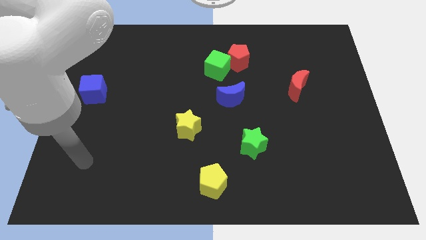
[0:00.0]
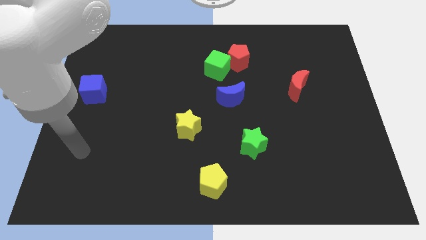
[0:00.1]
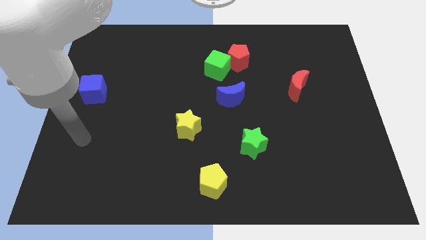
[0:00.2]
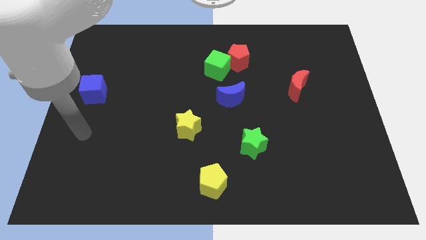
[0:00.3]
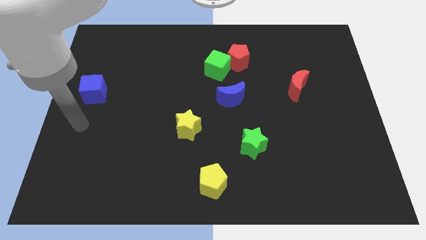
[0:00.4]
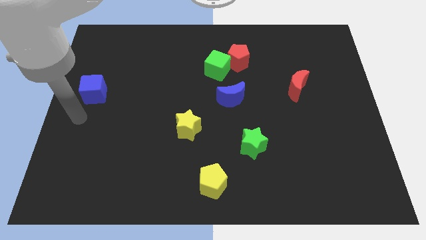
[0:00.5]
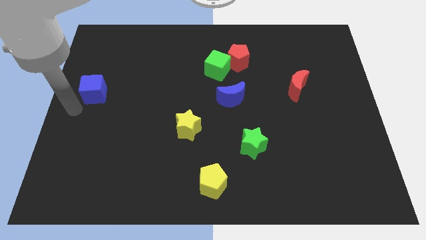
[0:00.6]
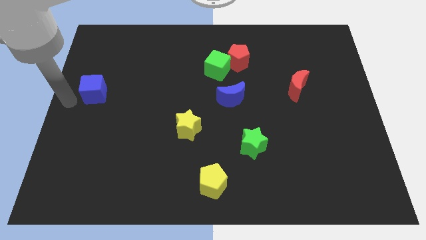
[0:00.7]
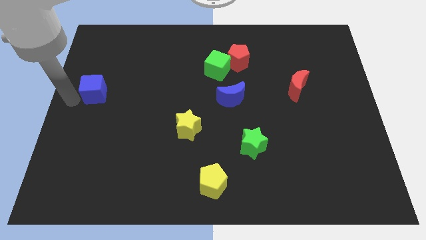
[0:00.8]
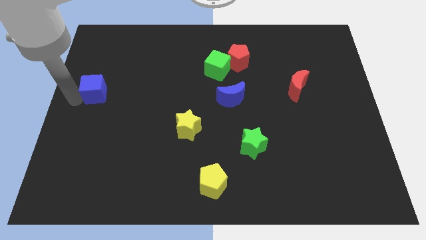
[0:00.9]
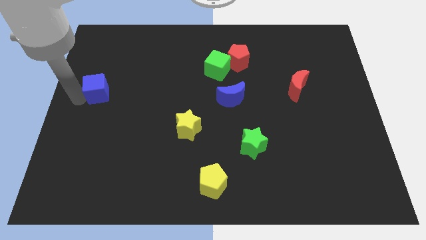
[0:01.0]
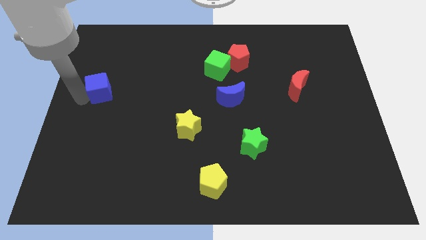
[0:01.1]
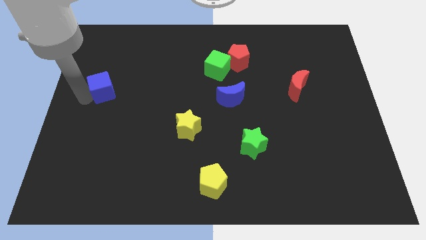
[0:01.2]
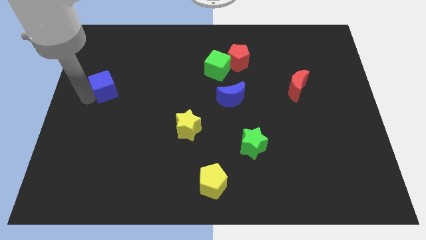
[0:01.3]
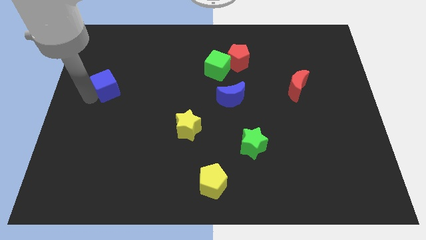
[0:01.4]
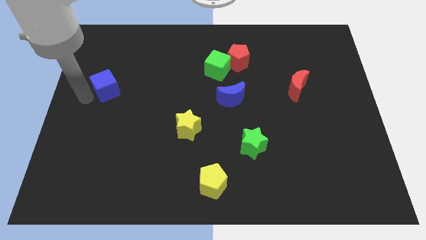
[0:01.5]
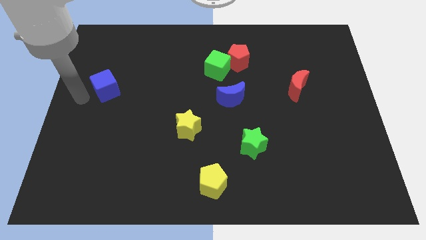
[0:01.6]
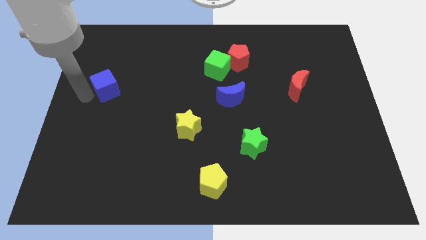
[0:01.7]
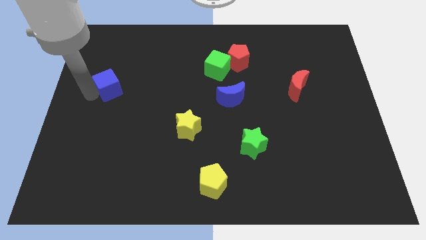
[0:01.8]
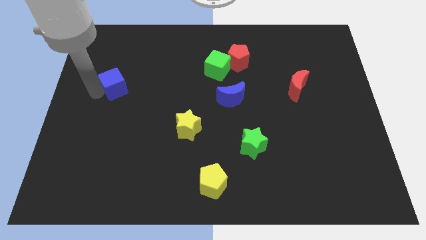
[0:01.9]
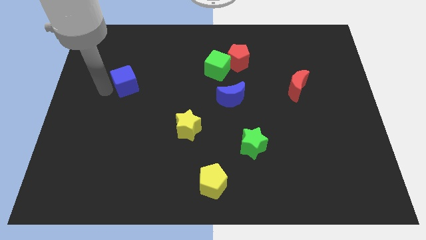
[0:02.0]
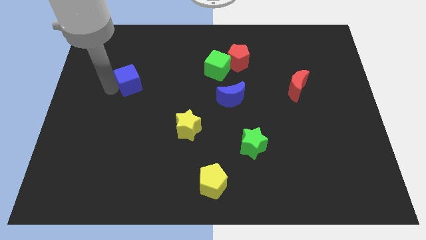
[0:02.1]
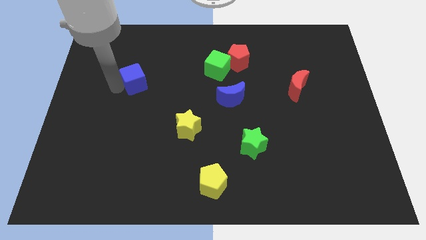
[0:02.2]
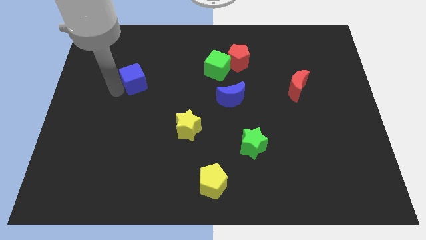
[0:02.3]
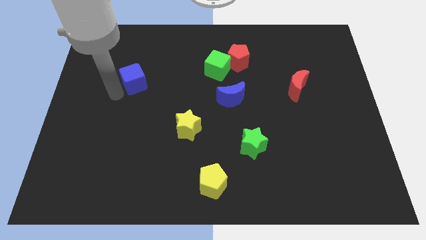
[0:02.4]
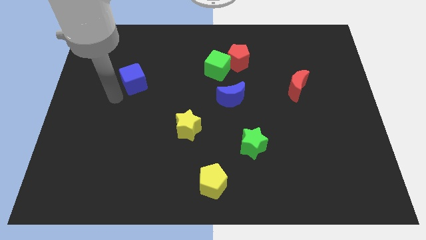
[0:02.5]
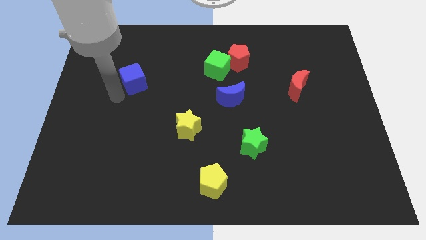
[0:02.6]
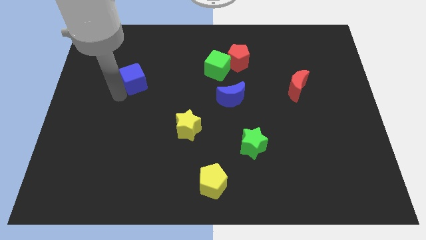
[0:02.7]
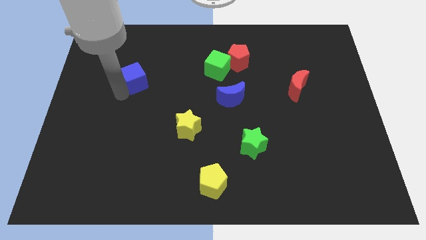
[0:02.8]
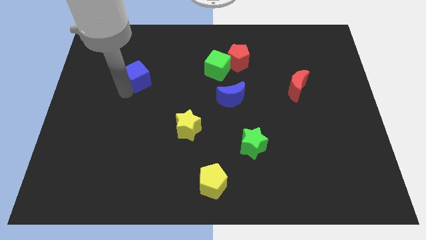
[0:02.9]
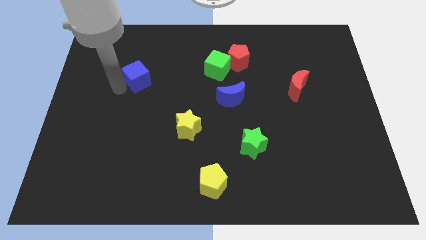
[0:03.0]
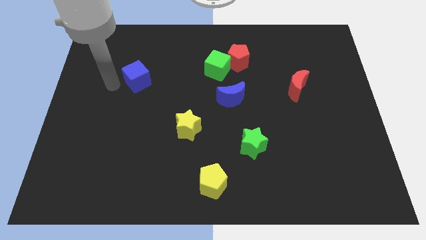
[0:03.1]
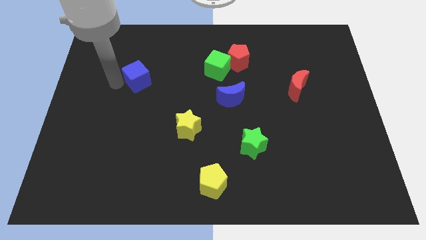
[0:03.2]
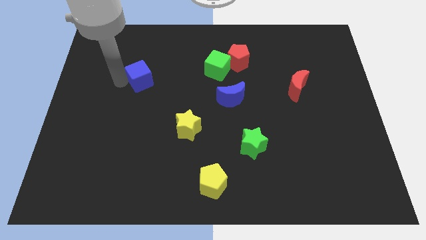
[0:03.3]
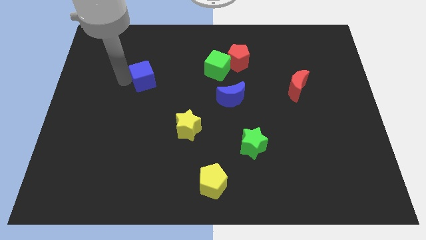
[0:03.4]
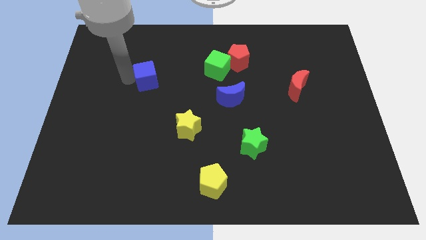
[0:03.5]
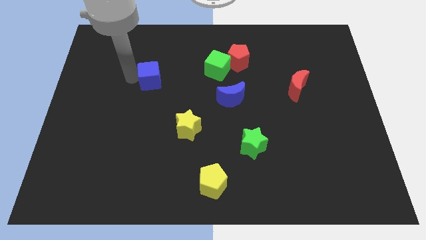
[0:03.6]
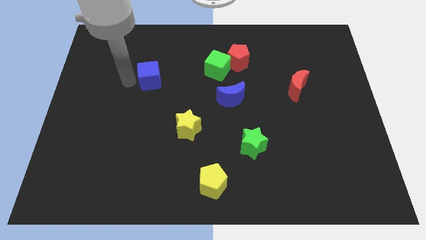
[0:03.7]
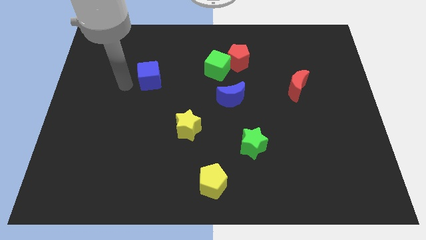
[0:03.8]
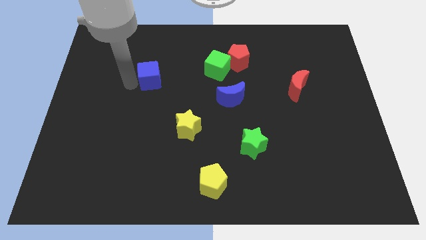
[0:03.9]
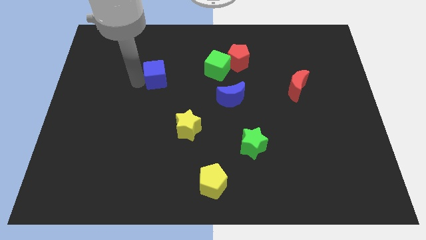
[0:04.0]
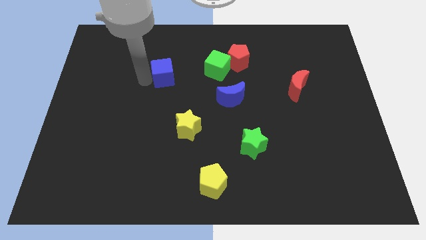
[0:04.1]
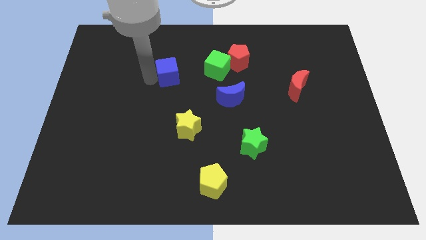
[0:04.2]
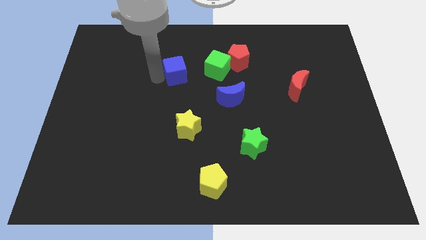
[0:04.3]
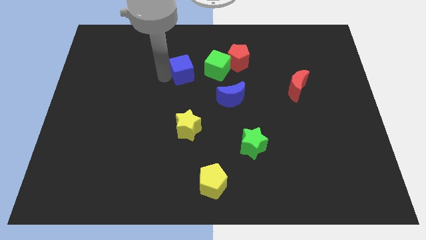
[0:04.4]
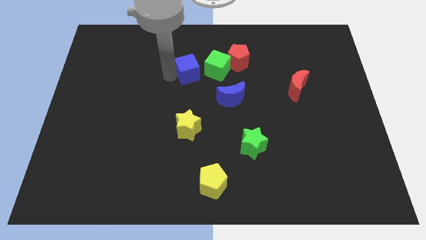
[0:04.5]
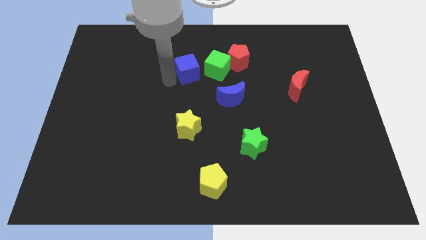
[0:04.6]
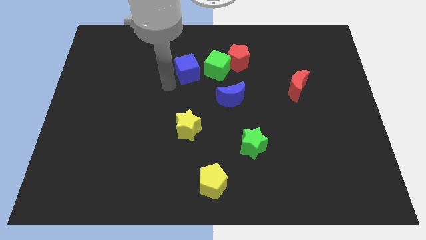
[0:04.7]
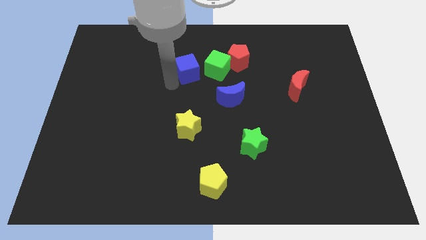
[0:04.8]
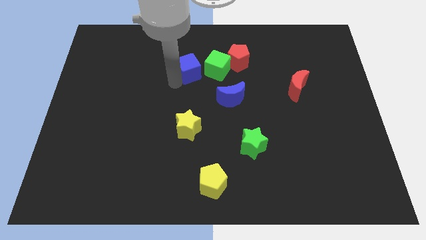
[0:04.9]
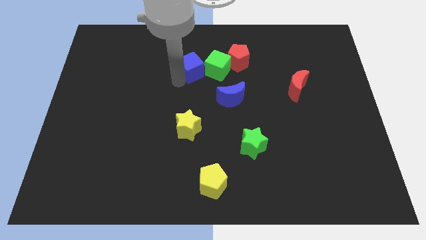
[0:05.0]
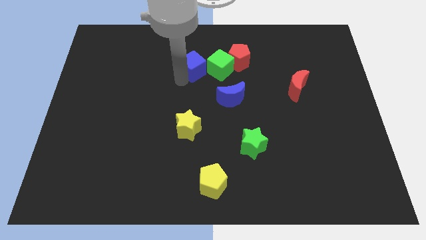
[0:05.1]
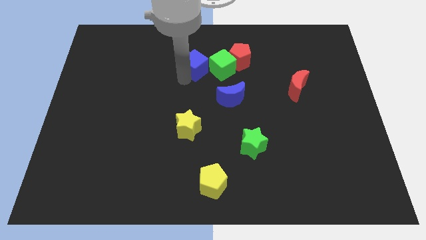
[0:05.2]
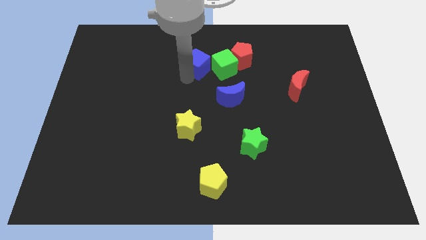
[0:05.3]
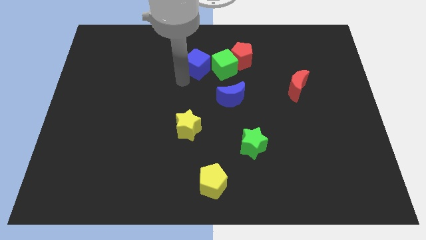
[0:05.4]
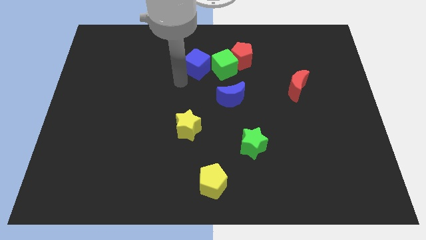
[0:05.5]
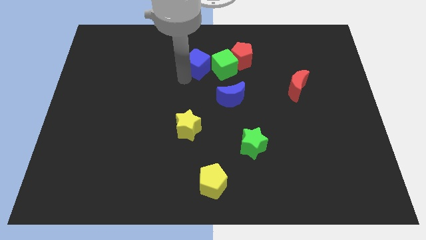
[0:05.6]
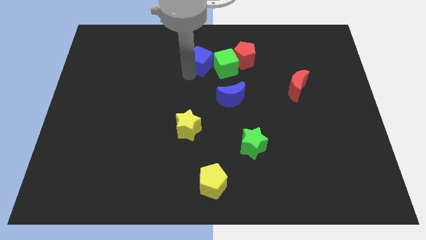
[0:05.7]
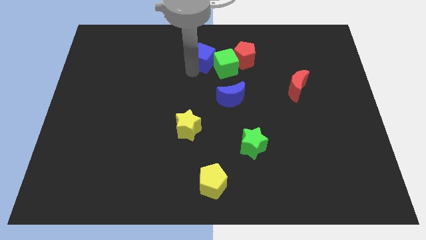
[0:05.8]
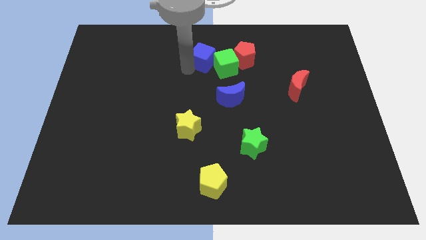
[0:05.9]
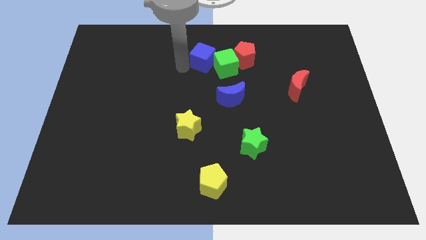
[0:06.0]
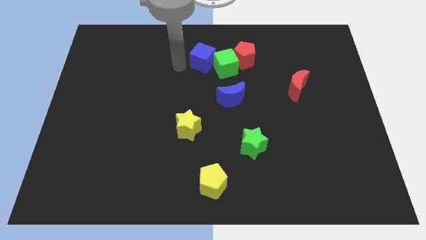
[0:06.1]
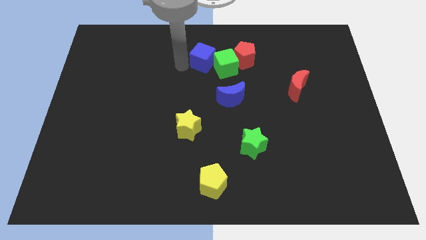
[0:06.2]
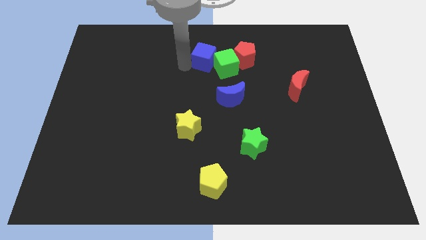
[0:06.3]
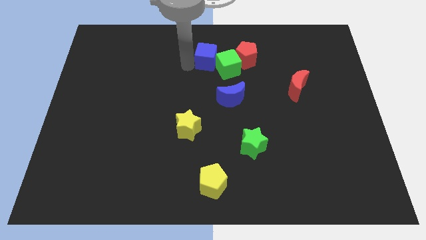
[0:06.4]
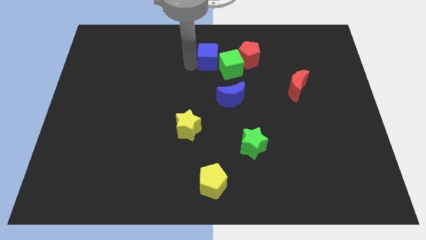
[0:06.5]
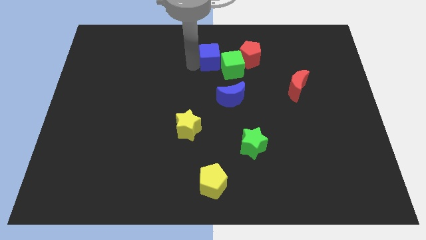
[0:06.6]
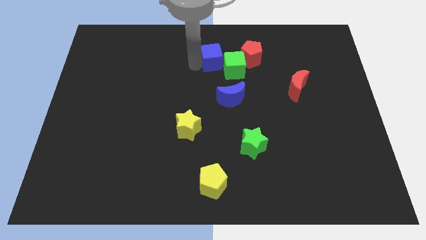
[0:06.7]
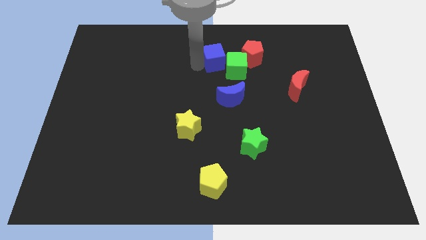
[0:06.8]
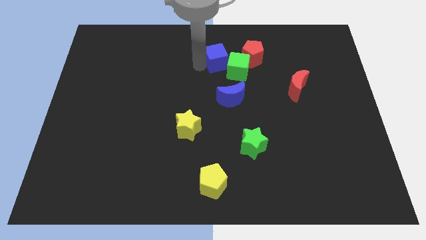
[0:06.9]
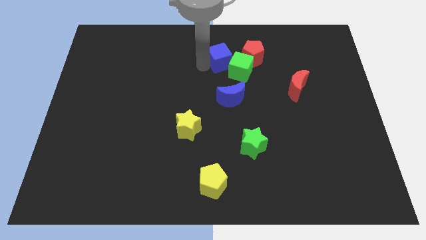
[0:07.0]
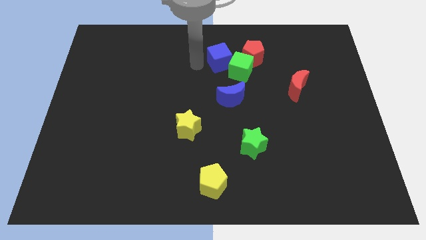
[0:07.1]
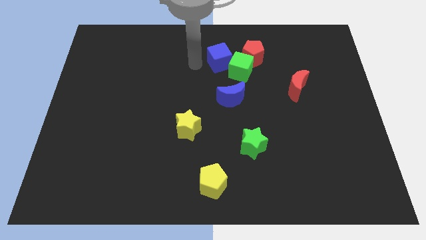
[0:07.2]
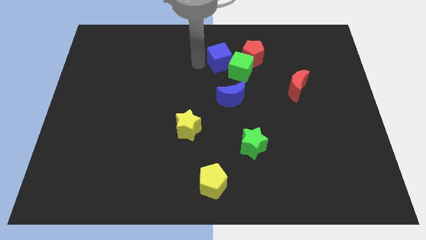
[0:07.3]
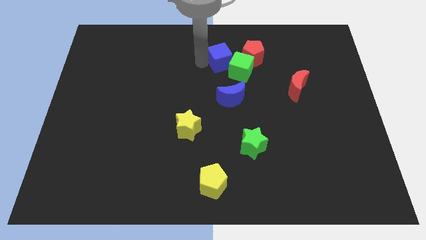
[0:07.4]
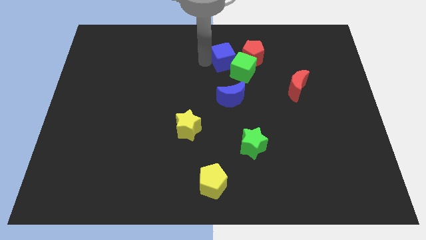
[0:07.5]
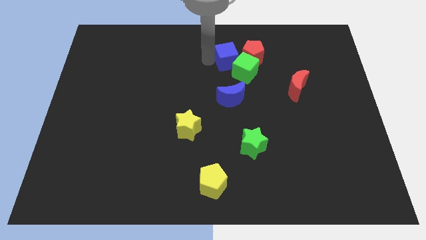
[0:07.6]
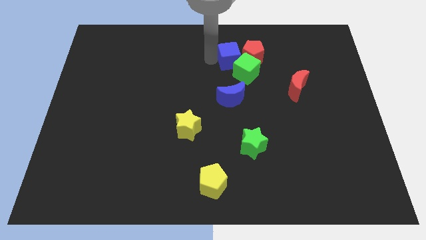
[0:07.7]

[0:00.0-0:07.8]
push the blue cube close to the red pentagon
